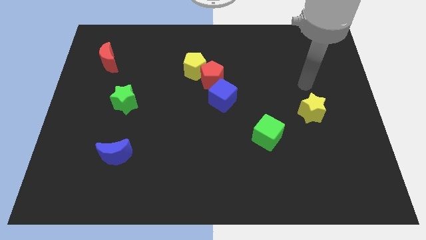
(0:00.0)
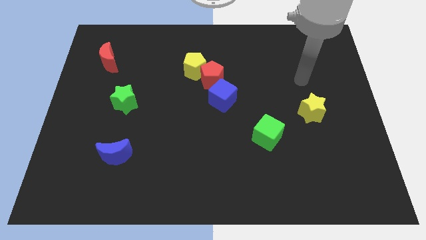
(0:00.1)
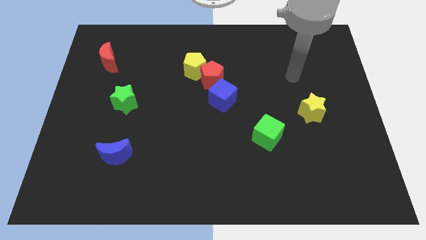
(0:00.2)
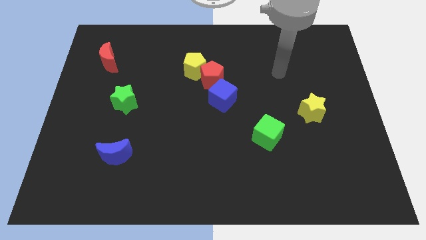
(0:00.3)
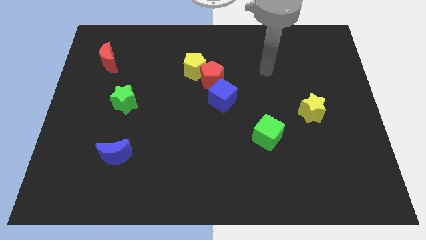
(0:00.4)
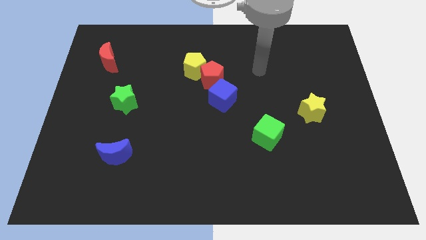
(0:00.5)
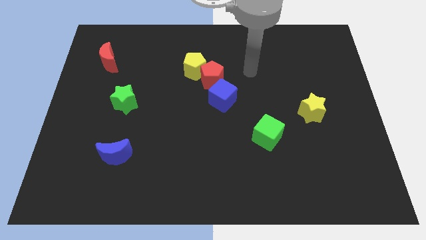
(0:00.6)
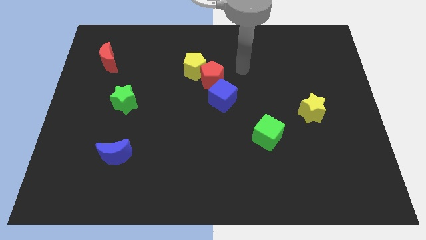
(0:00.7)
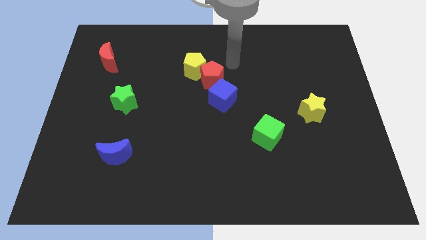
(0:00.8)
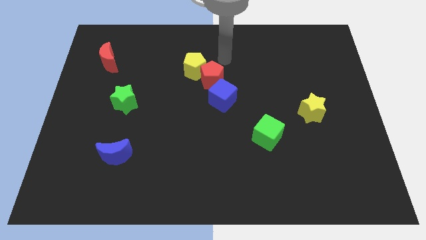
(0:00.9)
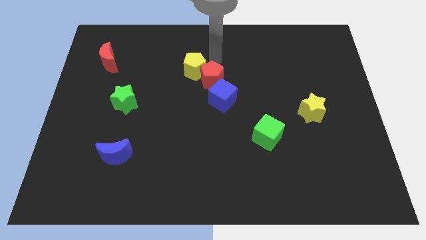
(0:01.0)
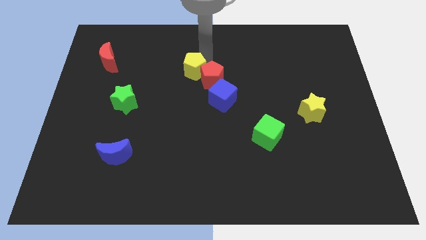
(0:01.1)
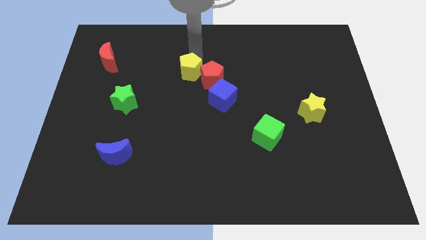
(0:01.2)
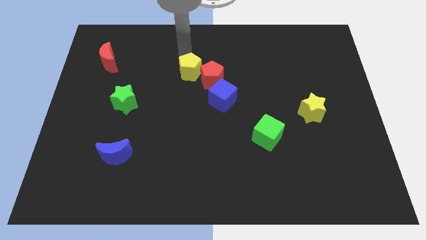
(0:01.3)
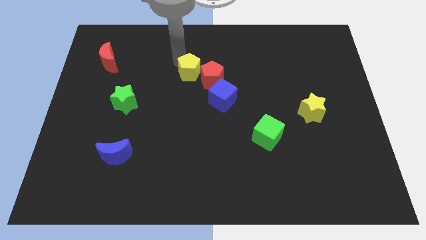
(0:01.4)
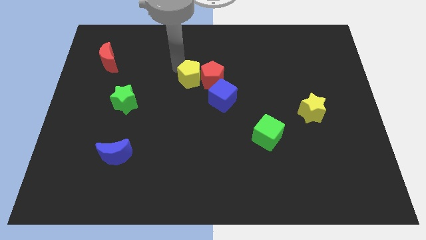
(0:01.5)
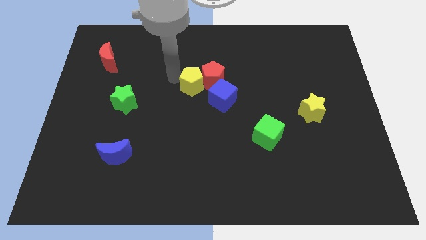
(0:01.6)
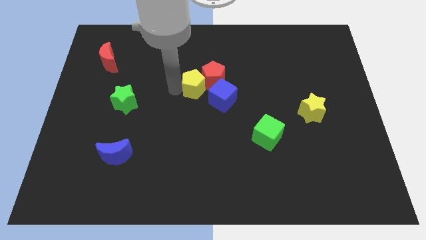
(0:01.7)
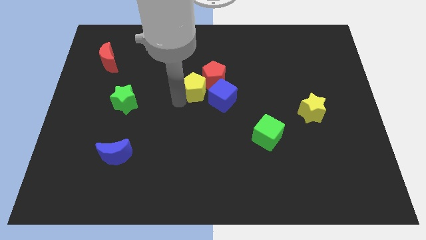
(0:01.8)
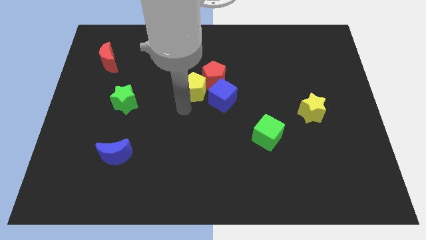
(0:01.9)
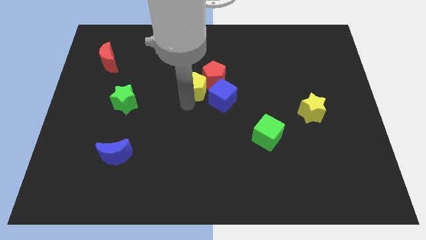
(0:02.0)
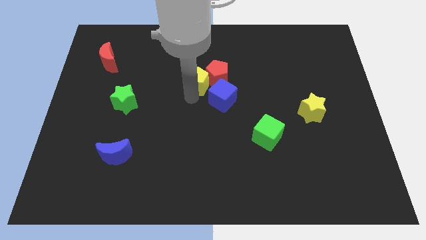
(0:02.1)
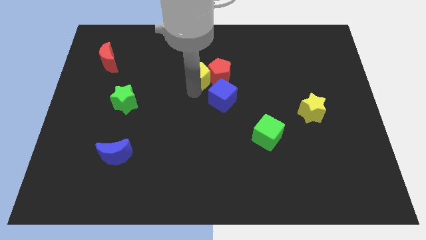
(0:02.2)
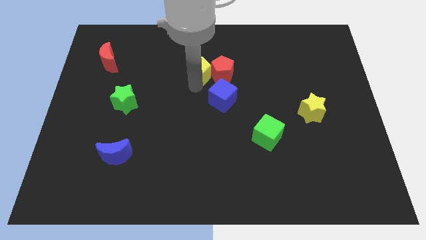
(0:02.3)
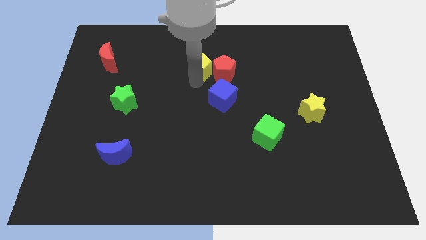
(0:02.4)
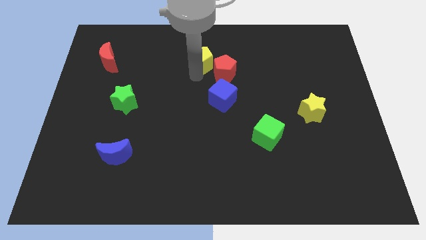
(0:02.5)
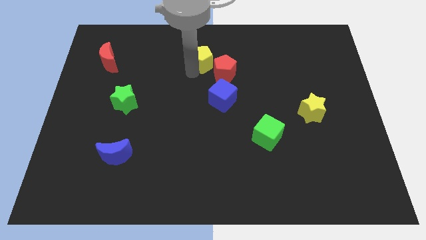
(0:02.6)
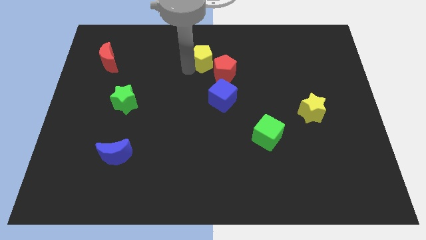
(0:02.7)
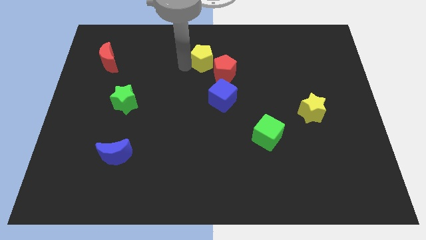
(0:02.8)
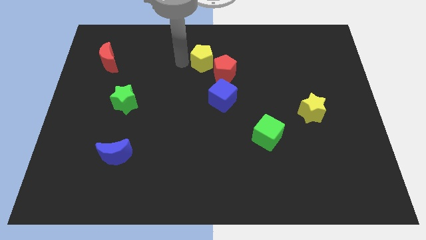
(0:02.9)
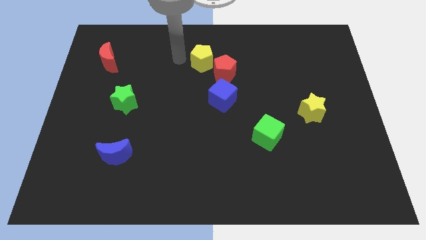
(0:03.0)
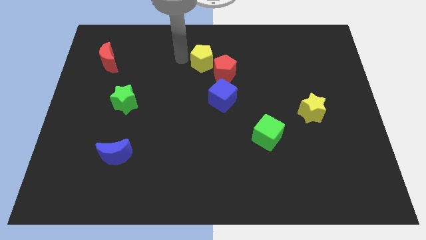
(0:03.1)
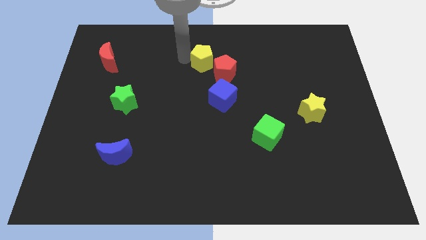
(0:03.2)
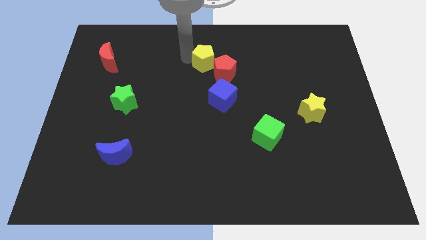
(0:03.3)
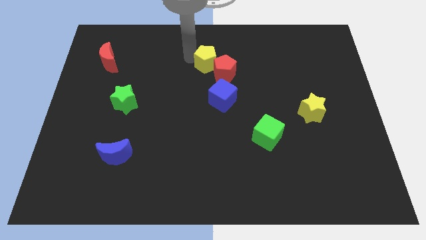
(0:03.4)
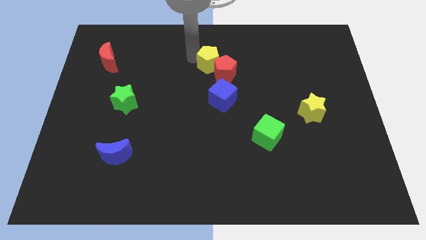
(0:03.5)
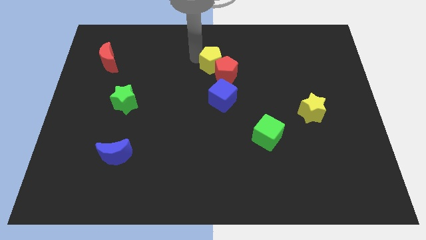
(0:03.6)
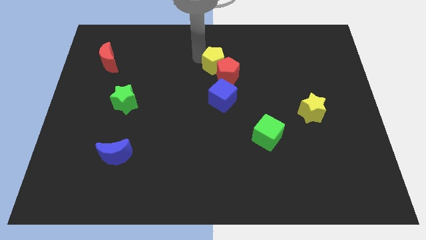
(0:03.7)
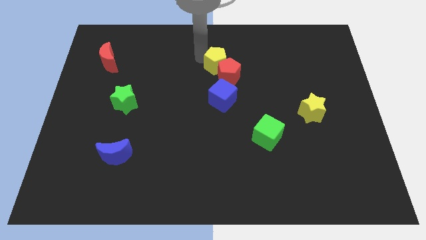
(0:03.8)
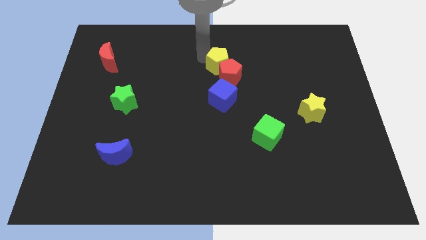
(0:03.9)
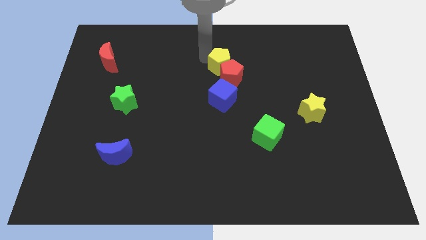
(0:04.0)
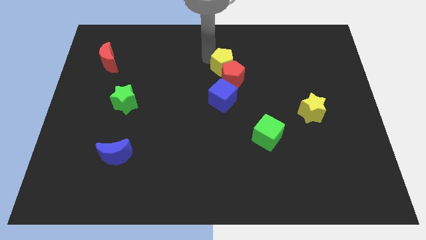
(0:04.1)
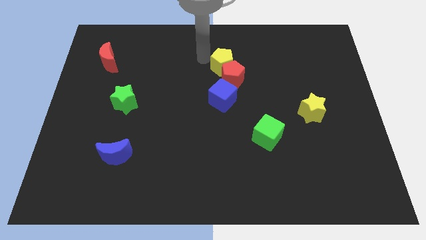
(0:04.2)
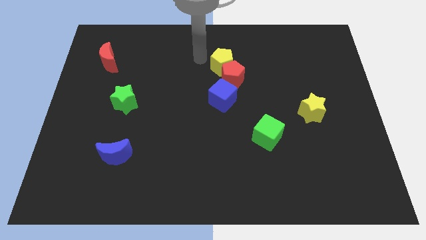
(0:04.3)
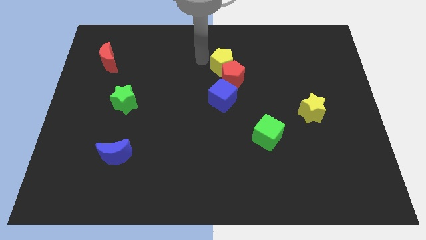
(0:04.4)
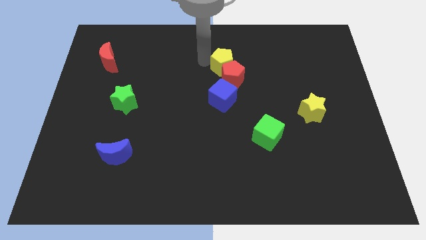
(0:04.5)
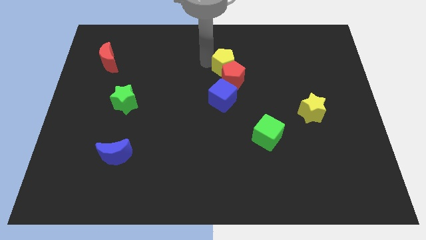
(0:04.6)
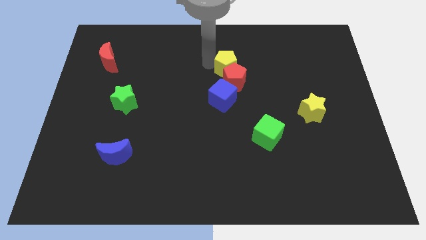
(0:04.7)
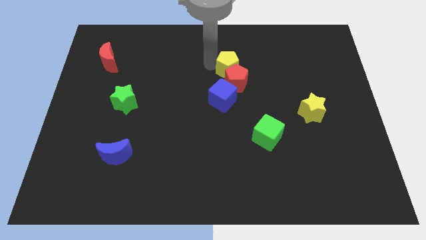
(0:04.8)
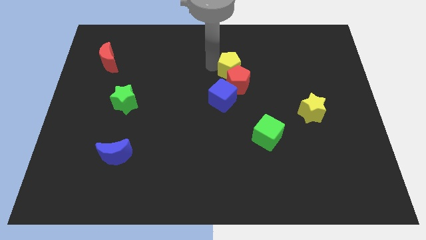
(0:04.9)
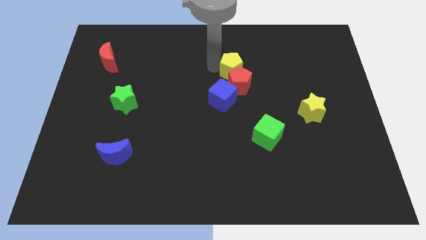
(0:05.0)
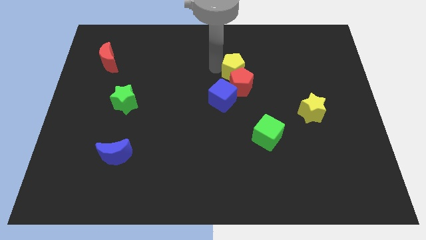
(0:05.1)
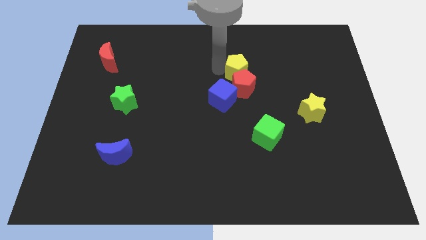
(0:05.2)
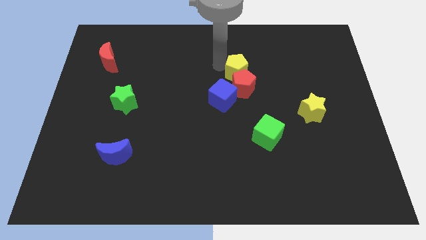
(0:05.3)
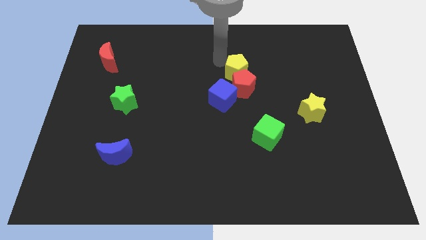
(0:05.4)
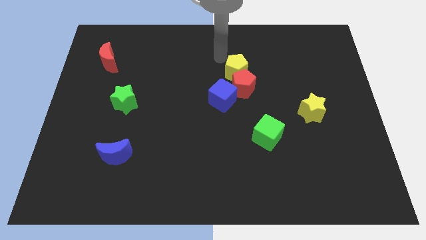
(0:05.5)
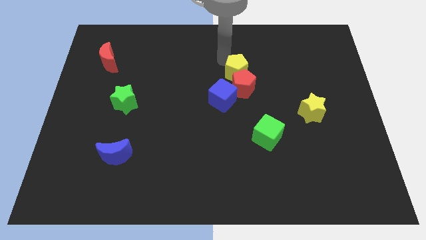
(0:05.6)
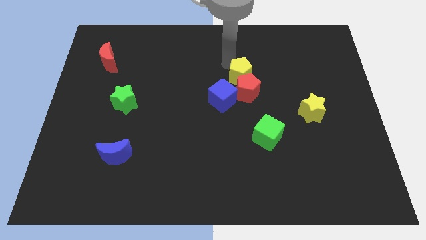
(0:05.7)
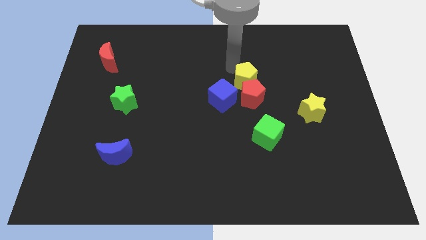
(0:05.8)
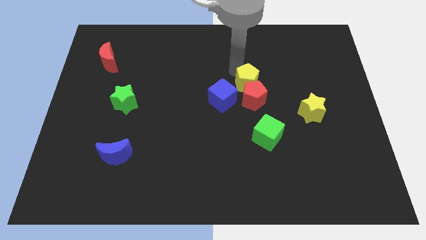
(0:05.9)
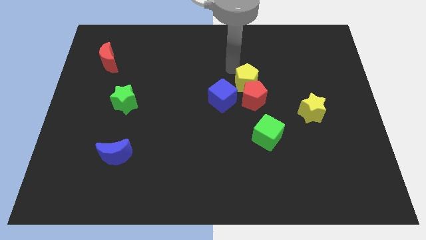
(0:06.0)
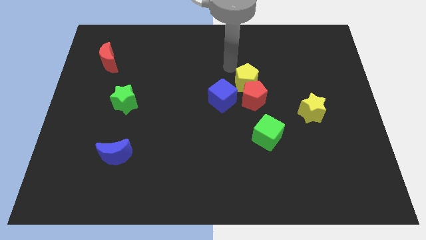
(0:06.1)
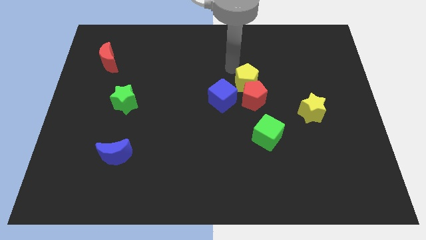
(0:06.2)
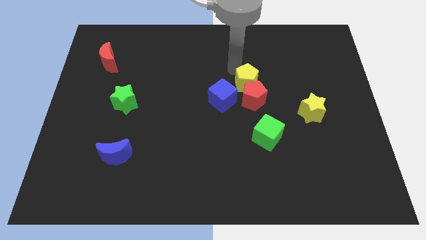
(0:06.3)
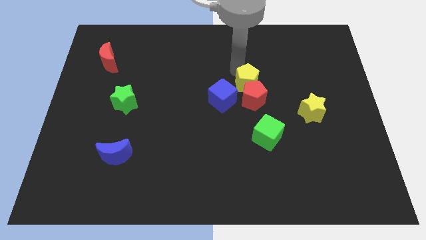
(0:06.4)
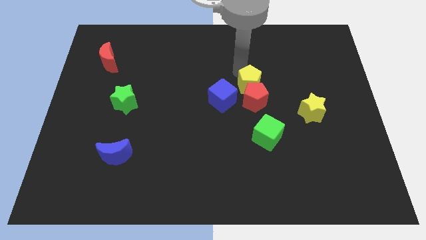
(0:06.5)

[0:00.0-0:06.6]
move the yellow pentagon just right of the blue cube
